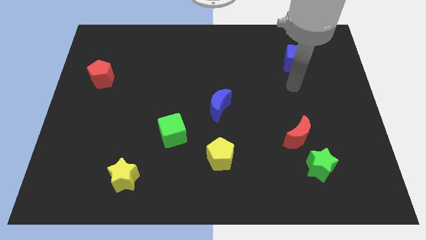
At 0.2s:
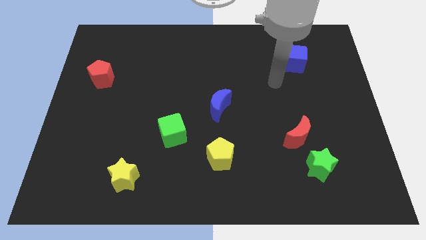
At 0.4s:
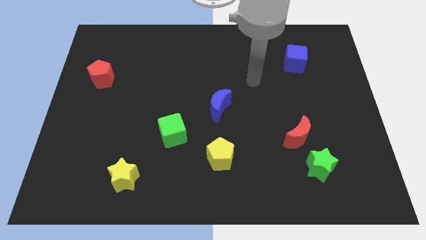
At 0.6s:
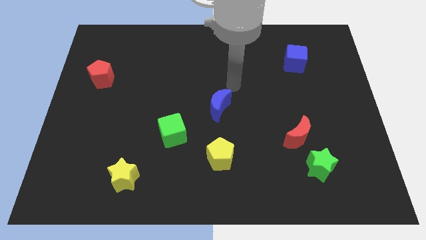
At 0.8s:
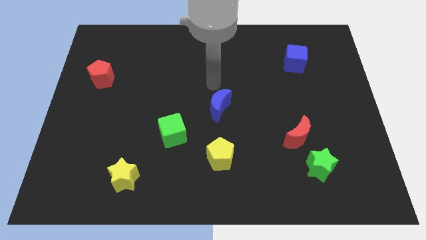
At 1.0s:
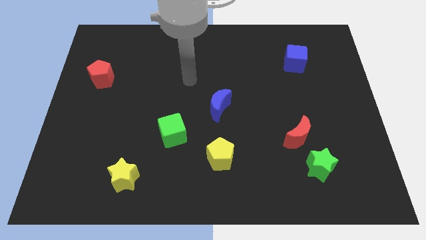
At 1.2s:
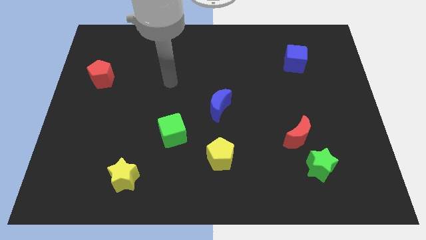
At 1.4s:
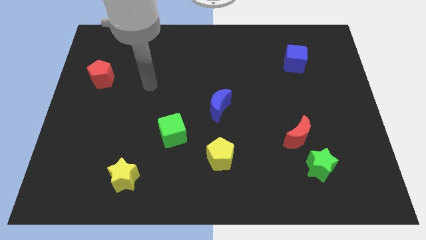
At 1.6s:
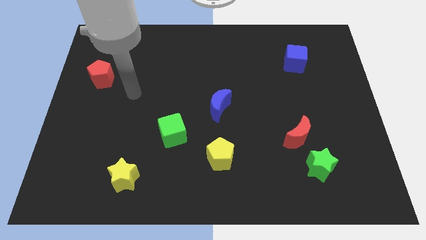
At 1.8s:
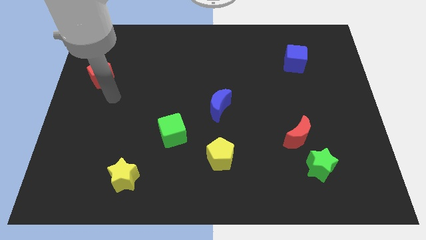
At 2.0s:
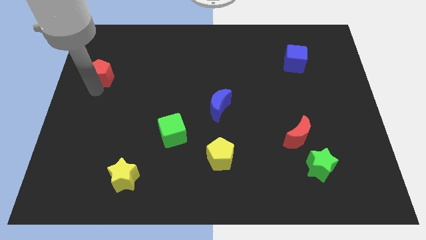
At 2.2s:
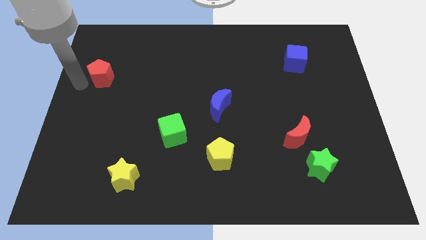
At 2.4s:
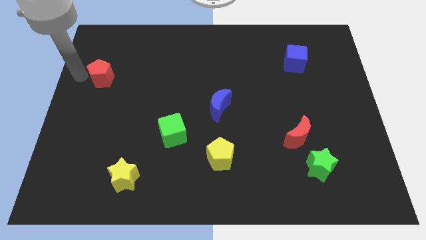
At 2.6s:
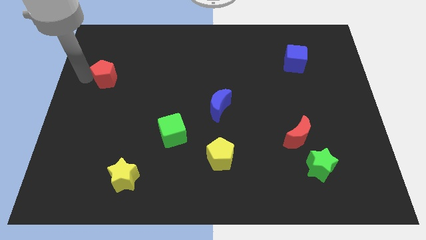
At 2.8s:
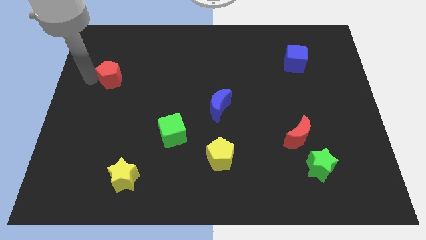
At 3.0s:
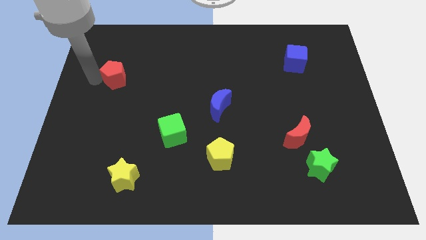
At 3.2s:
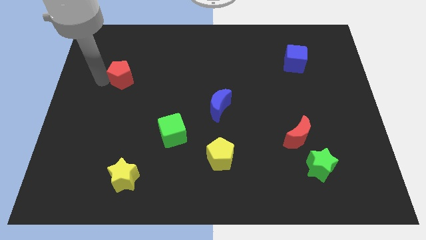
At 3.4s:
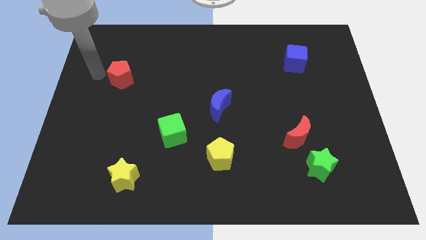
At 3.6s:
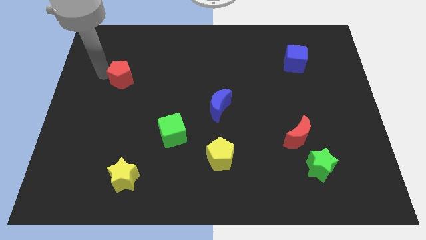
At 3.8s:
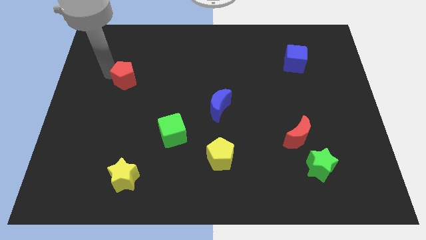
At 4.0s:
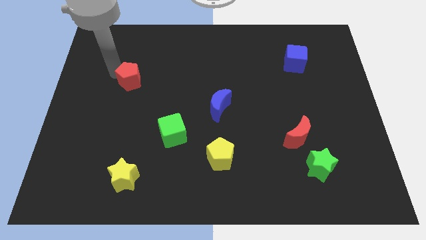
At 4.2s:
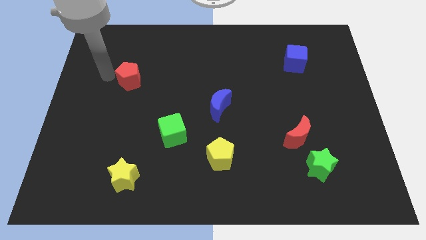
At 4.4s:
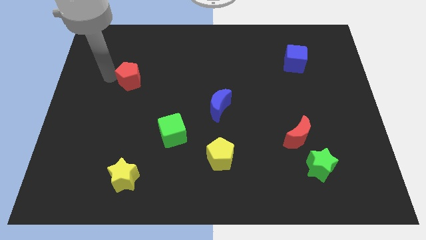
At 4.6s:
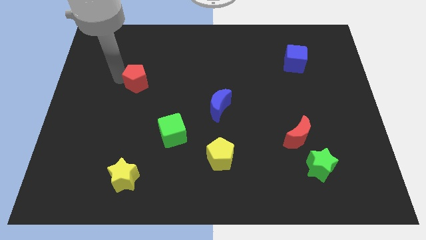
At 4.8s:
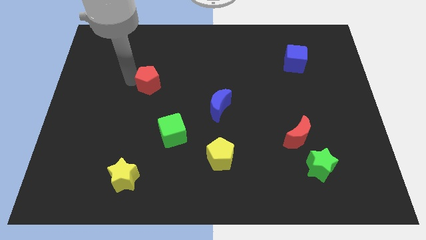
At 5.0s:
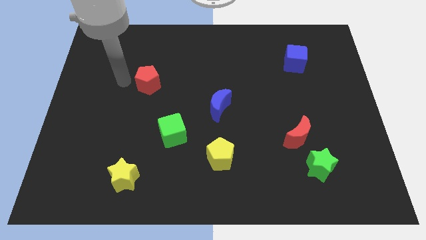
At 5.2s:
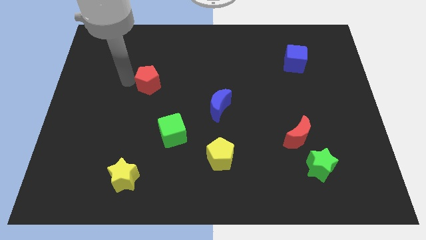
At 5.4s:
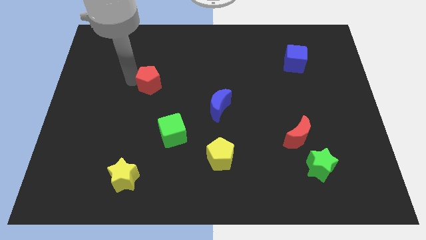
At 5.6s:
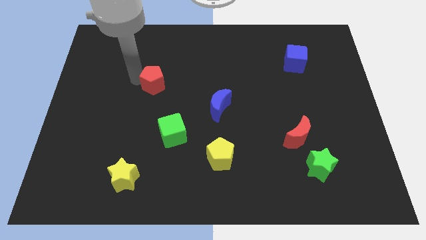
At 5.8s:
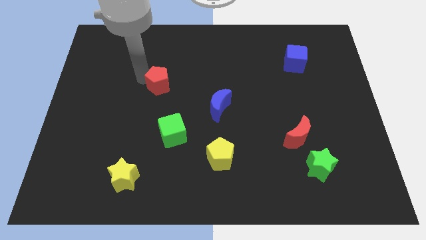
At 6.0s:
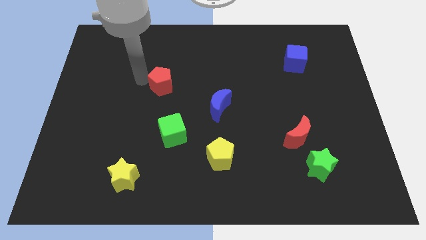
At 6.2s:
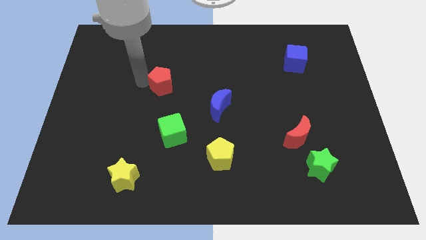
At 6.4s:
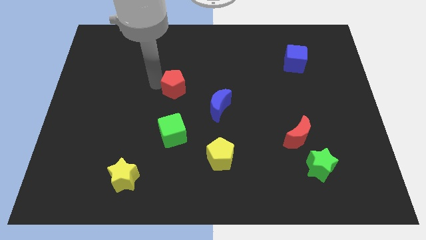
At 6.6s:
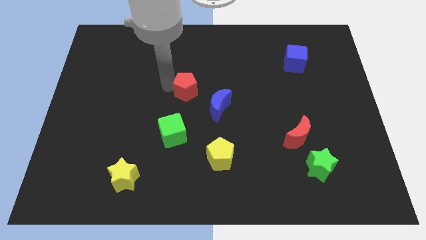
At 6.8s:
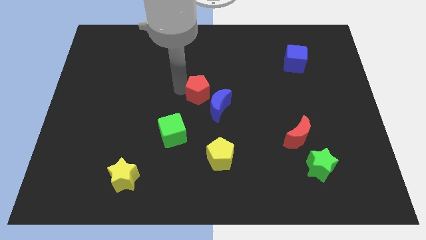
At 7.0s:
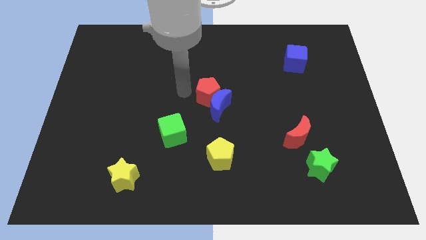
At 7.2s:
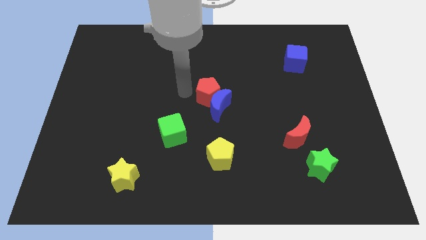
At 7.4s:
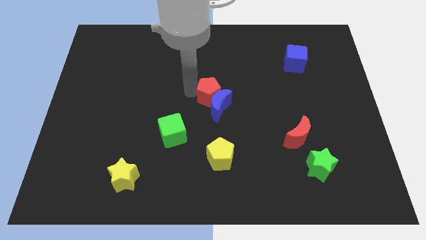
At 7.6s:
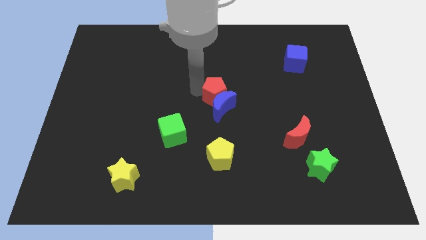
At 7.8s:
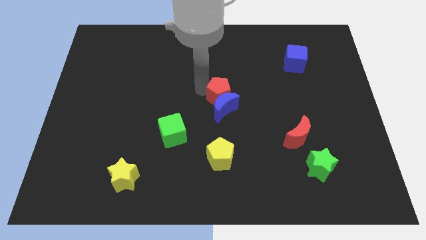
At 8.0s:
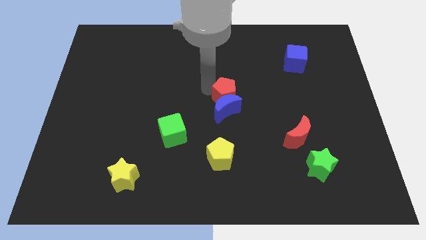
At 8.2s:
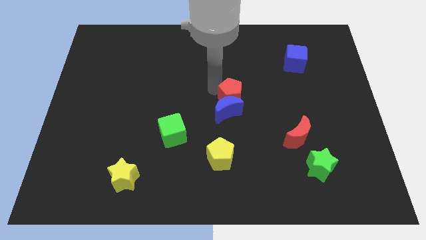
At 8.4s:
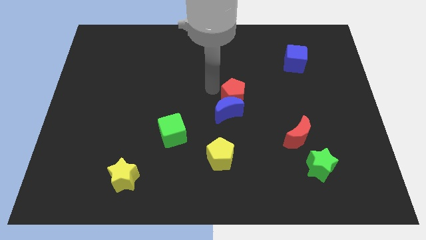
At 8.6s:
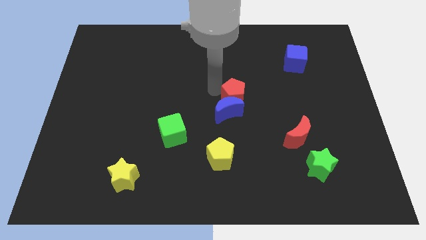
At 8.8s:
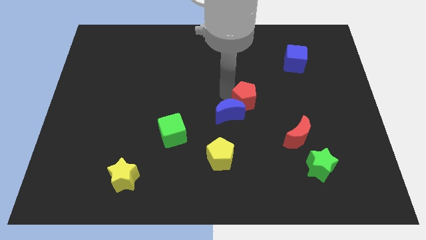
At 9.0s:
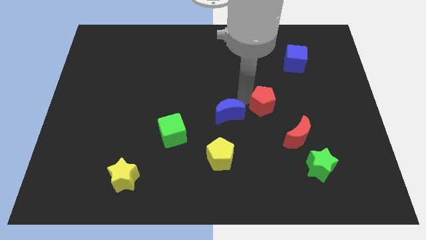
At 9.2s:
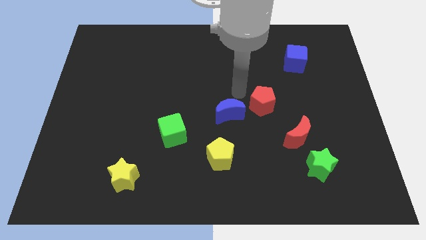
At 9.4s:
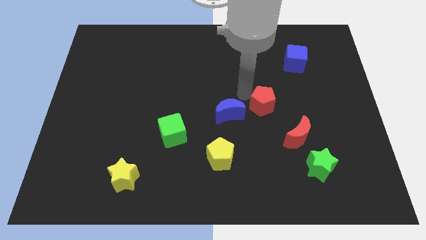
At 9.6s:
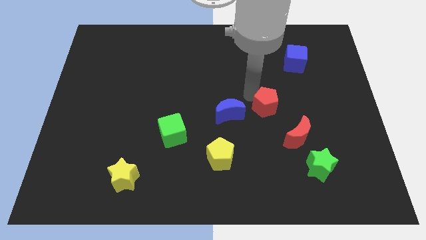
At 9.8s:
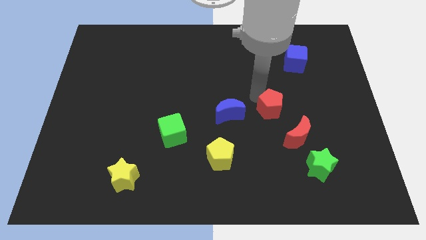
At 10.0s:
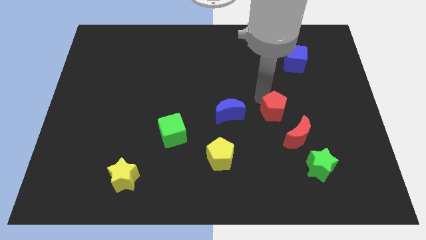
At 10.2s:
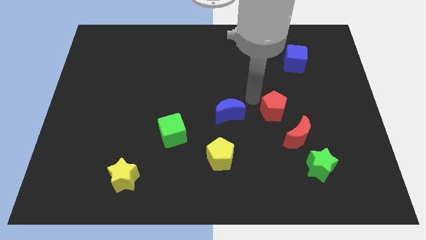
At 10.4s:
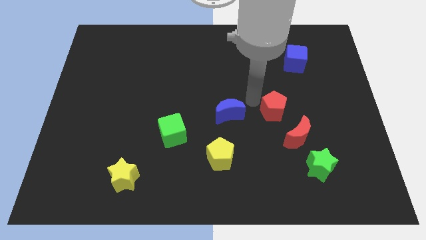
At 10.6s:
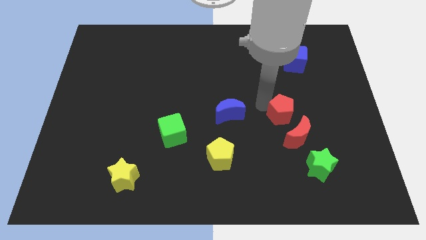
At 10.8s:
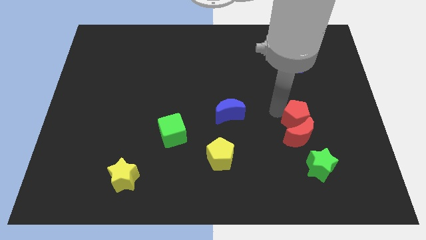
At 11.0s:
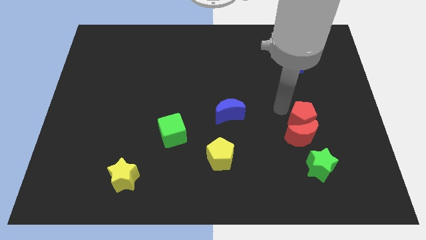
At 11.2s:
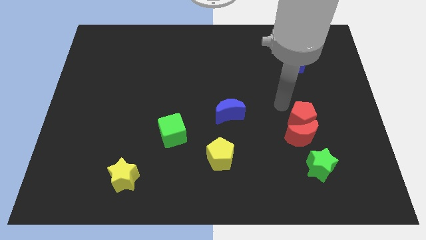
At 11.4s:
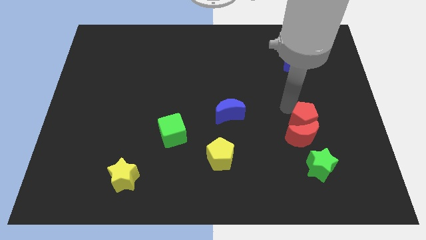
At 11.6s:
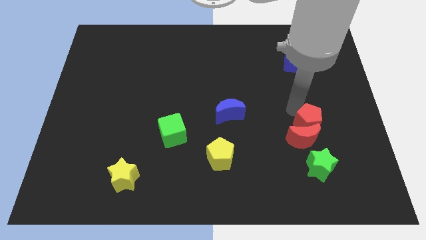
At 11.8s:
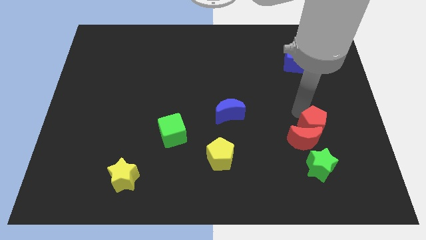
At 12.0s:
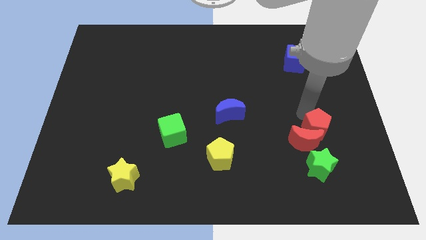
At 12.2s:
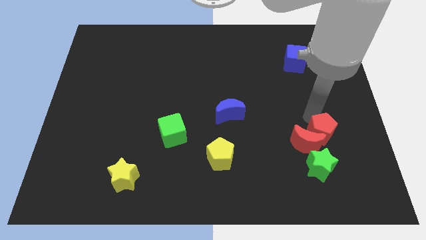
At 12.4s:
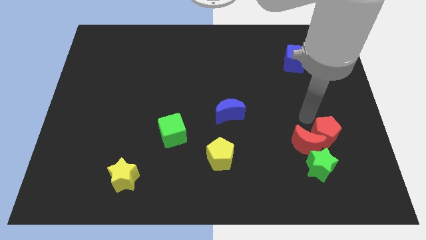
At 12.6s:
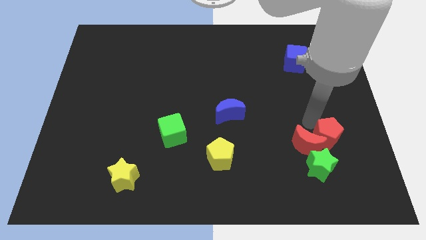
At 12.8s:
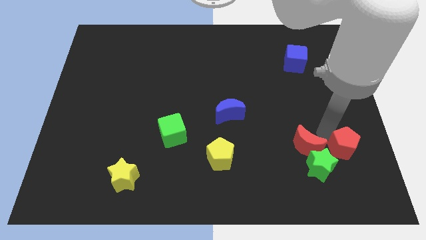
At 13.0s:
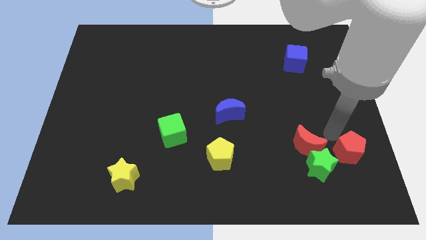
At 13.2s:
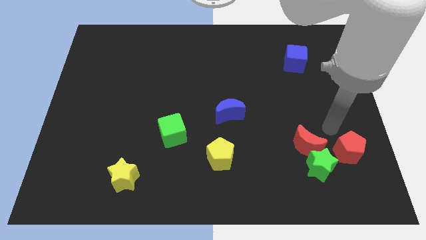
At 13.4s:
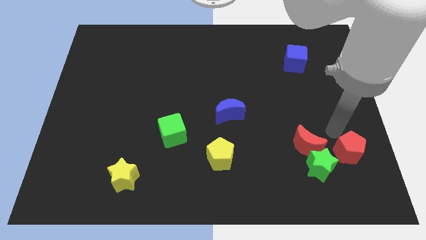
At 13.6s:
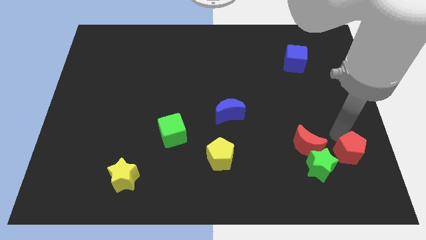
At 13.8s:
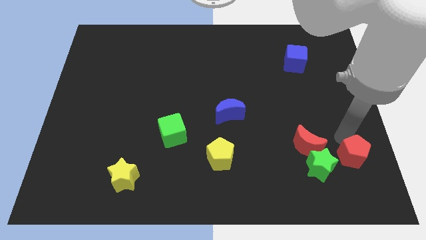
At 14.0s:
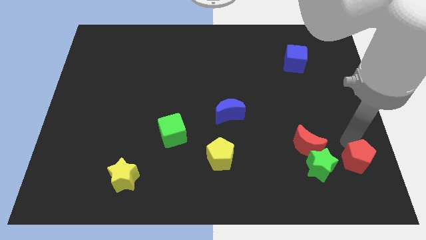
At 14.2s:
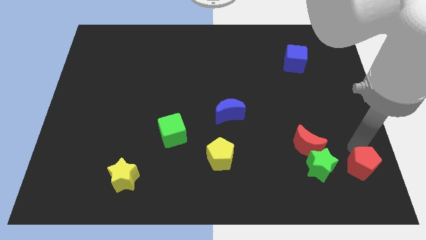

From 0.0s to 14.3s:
move the red pentagon to the bottom right of the board
